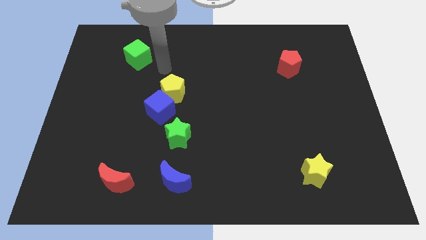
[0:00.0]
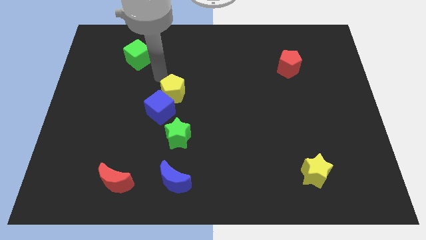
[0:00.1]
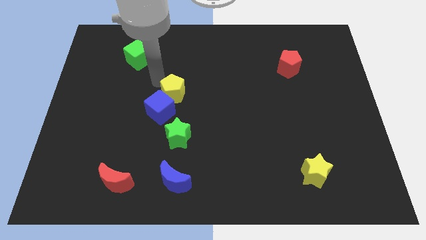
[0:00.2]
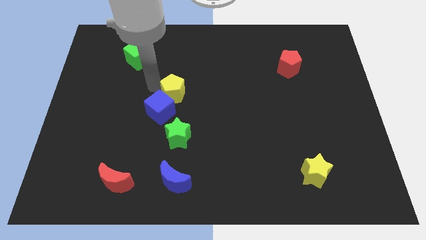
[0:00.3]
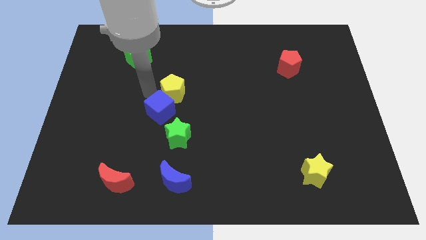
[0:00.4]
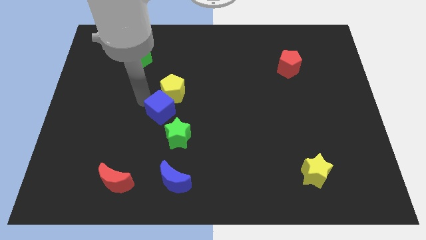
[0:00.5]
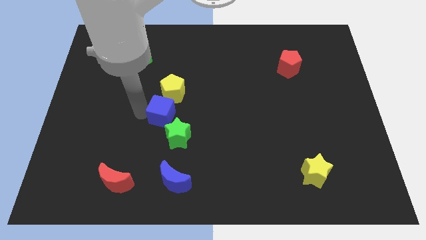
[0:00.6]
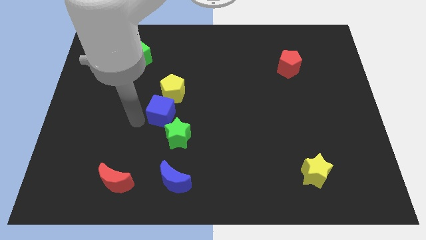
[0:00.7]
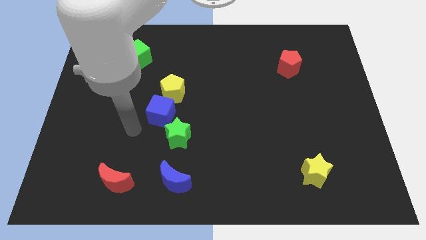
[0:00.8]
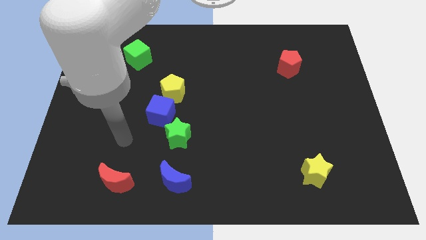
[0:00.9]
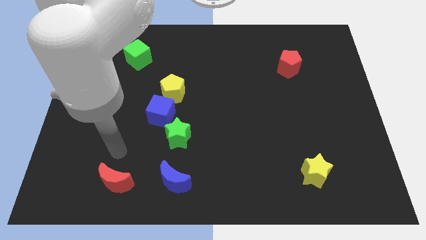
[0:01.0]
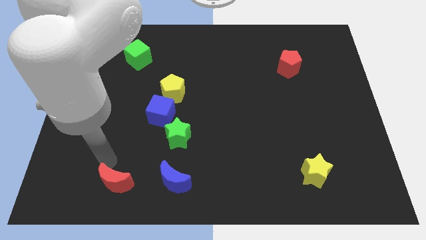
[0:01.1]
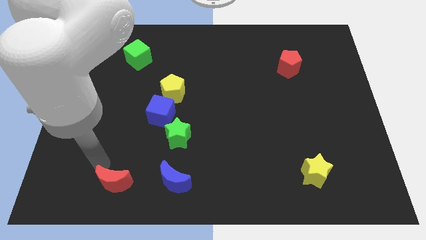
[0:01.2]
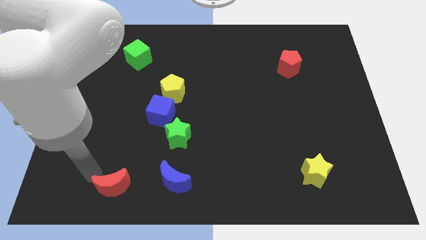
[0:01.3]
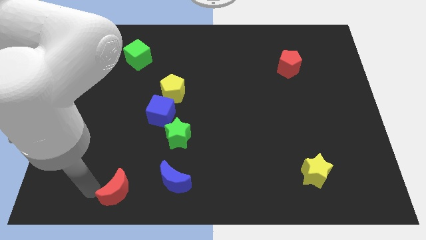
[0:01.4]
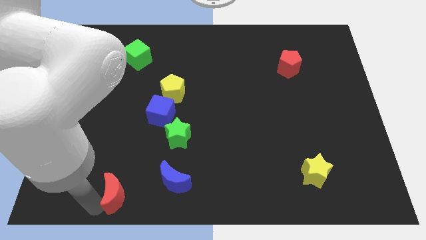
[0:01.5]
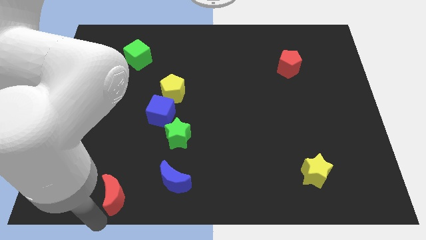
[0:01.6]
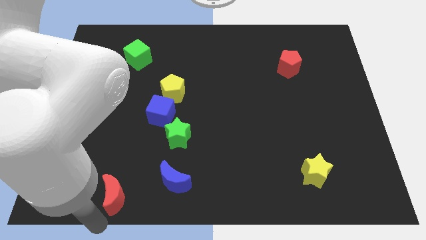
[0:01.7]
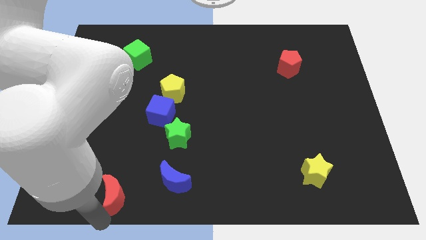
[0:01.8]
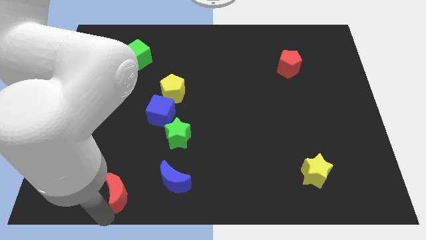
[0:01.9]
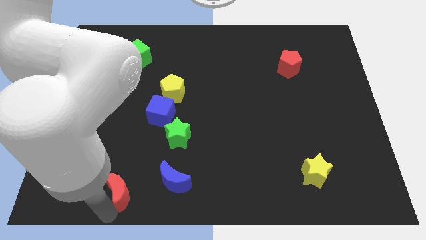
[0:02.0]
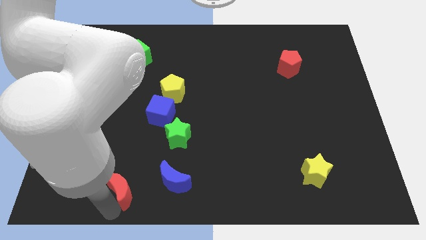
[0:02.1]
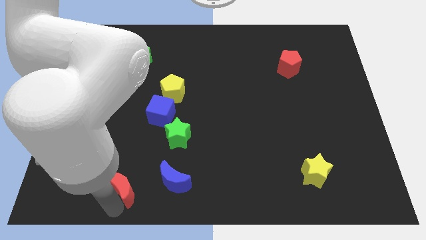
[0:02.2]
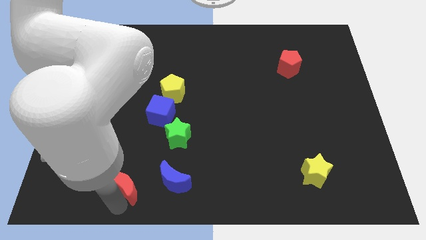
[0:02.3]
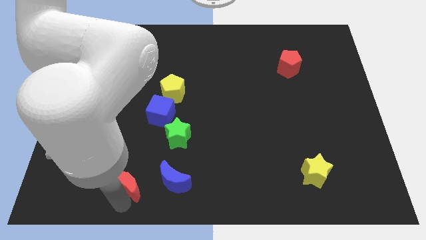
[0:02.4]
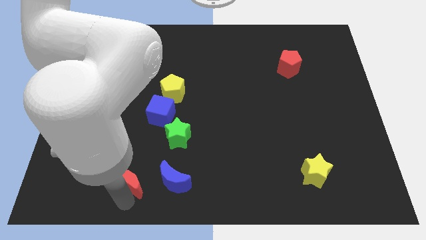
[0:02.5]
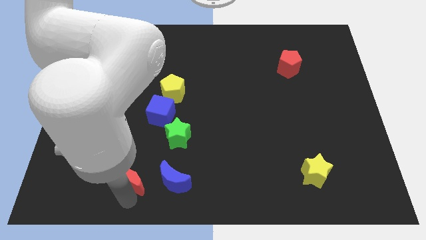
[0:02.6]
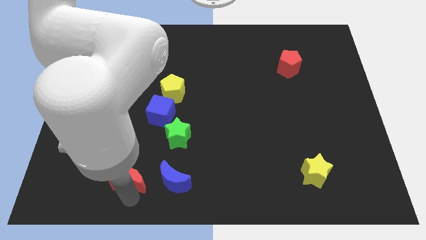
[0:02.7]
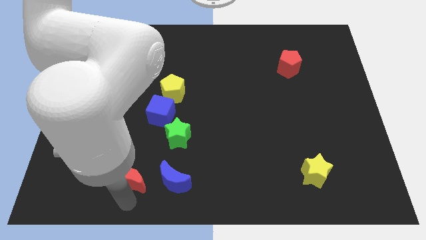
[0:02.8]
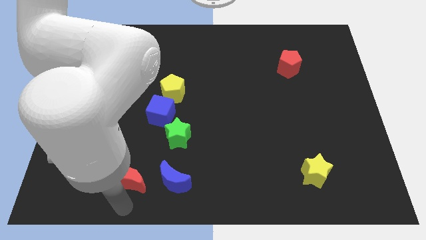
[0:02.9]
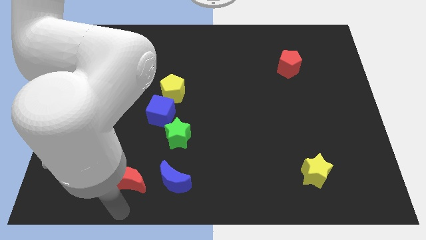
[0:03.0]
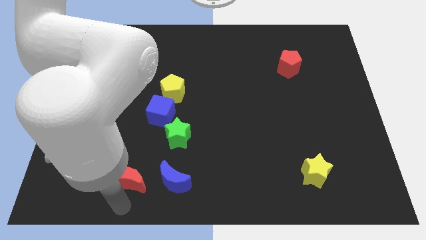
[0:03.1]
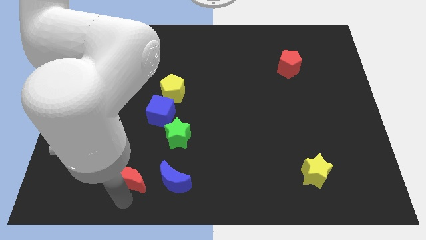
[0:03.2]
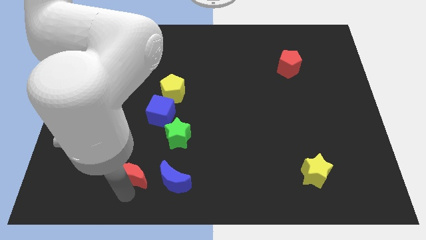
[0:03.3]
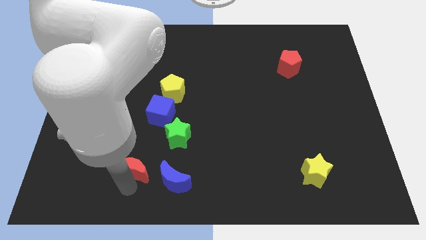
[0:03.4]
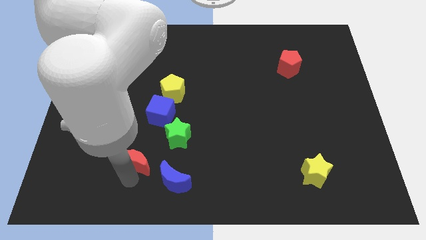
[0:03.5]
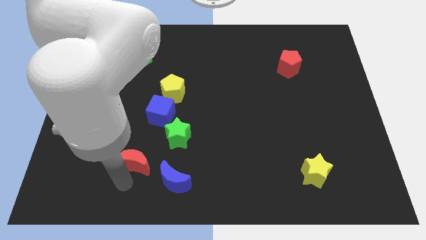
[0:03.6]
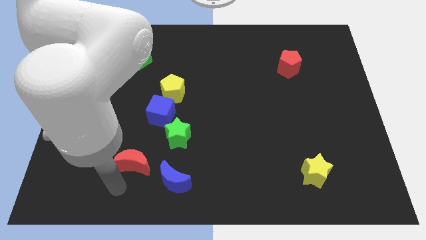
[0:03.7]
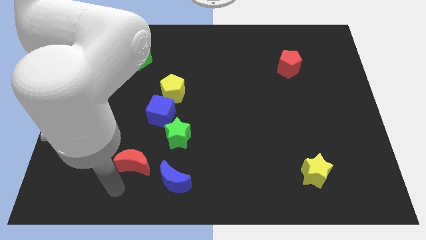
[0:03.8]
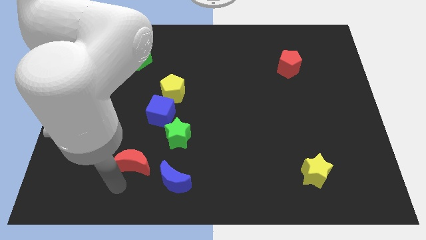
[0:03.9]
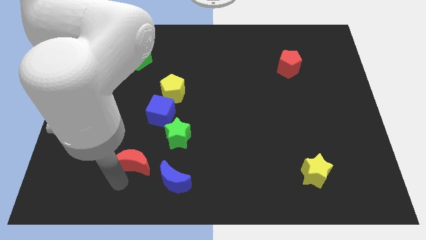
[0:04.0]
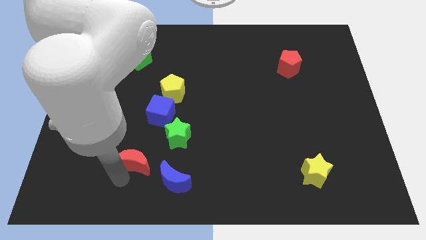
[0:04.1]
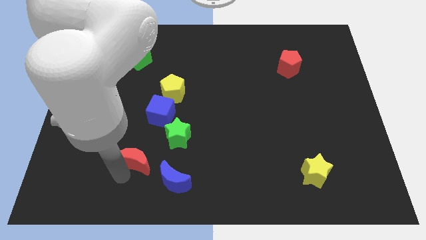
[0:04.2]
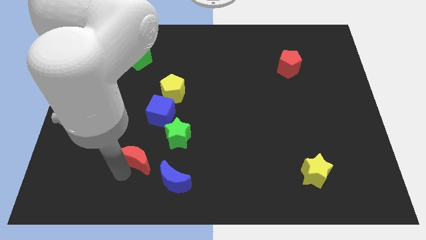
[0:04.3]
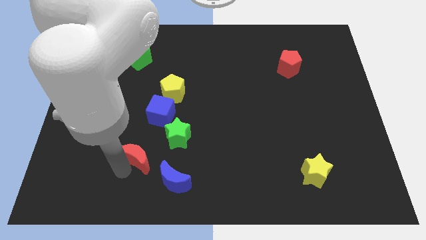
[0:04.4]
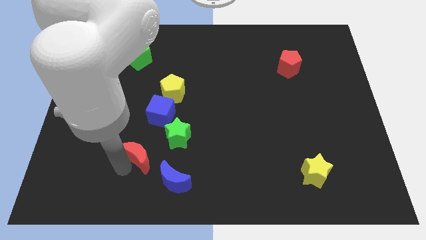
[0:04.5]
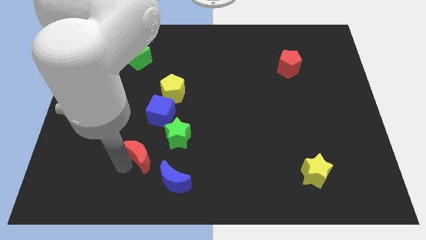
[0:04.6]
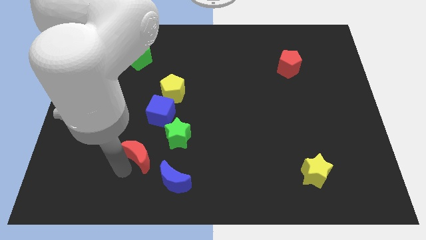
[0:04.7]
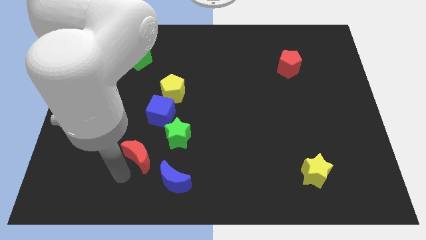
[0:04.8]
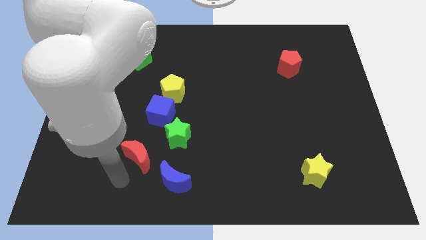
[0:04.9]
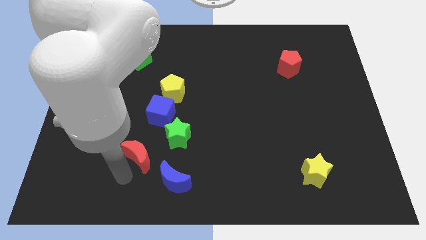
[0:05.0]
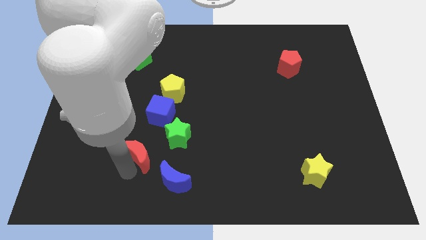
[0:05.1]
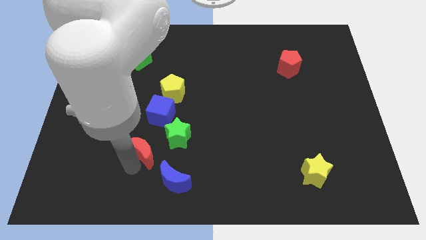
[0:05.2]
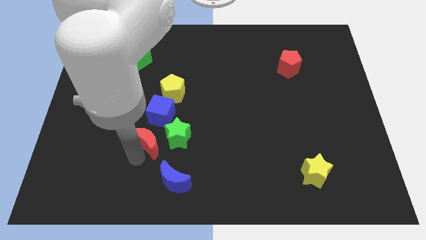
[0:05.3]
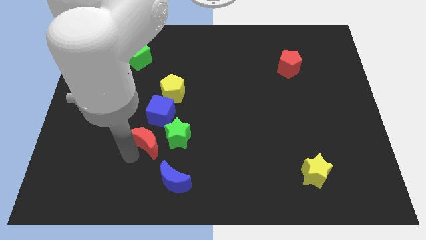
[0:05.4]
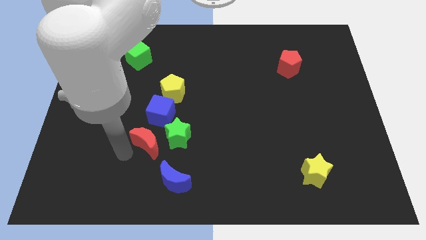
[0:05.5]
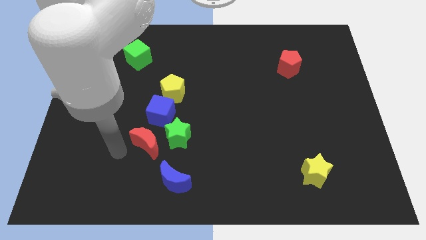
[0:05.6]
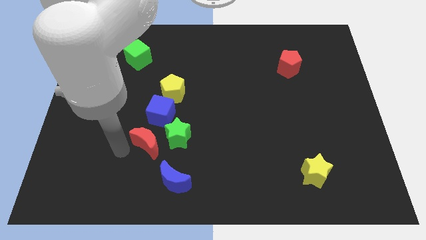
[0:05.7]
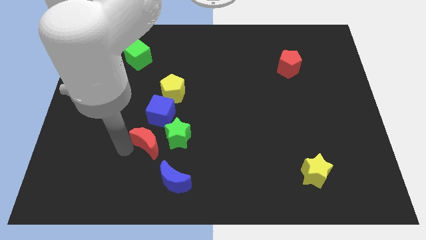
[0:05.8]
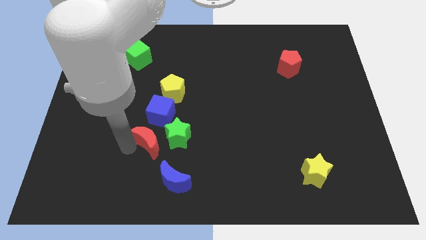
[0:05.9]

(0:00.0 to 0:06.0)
put the red moon close to the green star

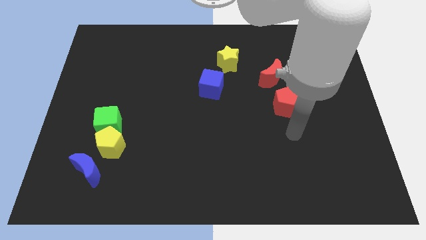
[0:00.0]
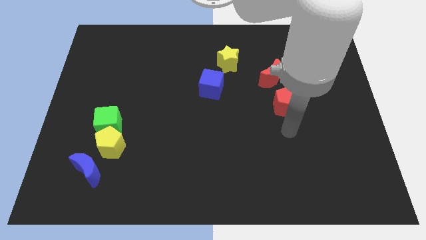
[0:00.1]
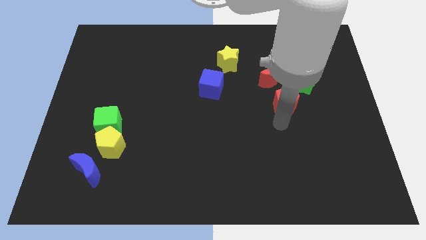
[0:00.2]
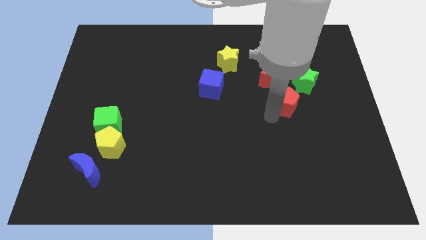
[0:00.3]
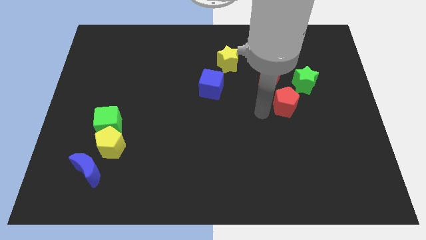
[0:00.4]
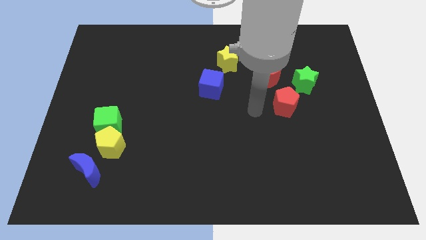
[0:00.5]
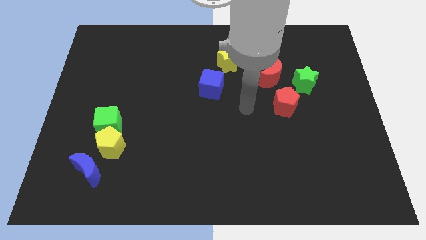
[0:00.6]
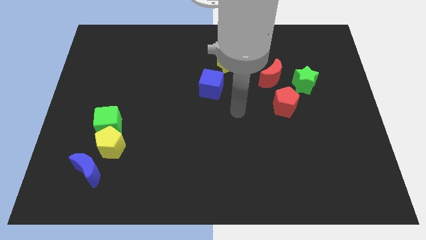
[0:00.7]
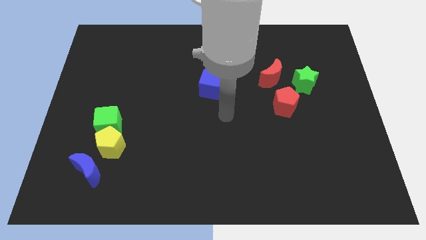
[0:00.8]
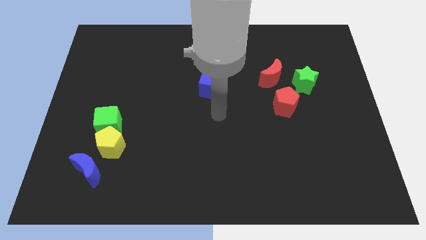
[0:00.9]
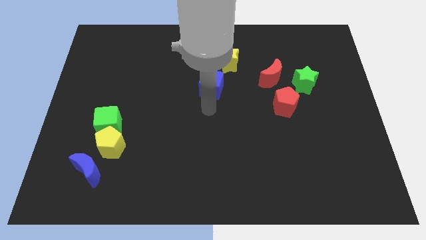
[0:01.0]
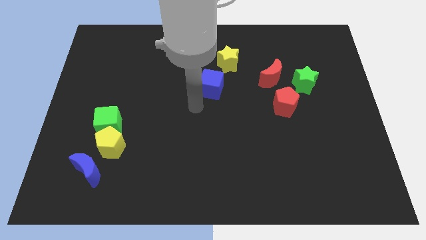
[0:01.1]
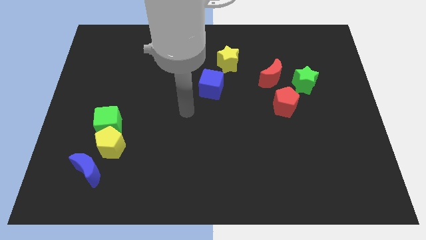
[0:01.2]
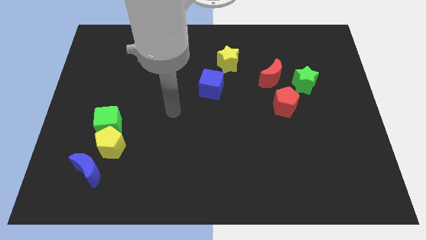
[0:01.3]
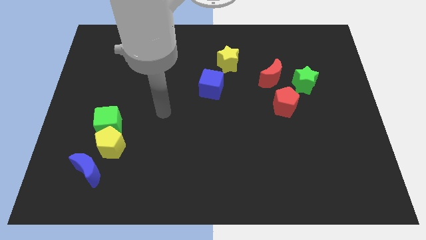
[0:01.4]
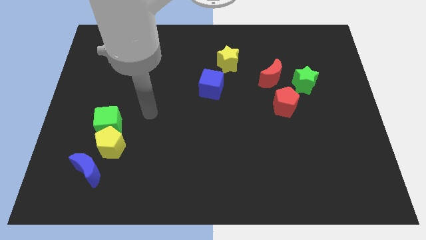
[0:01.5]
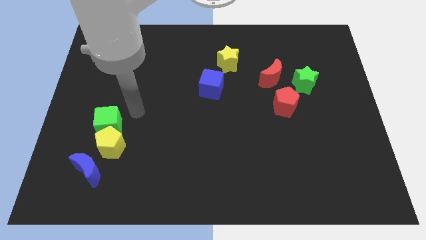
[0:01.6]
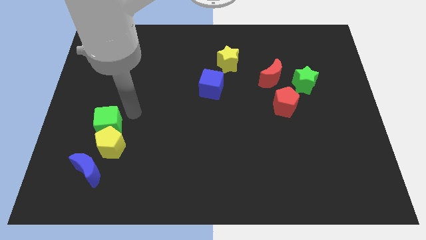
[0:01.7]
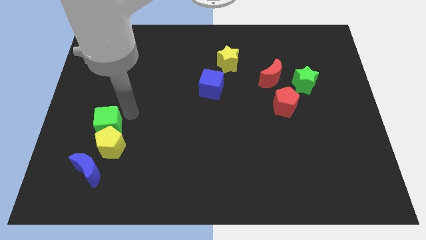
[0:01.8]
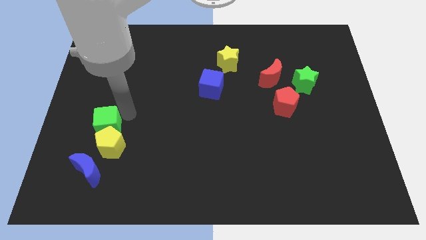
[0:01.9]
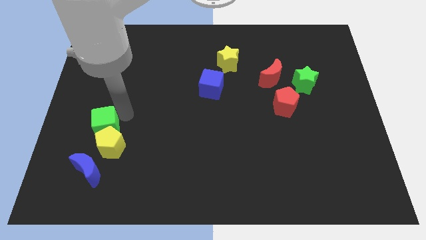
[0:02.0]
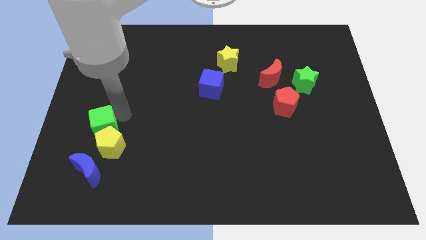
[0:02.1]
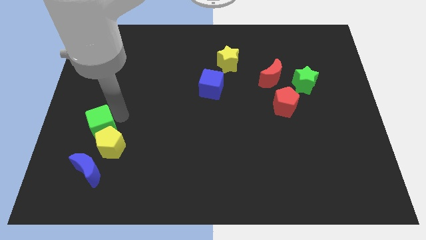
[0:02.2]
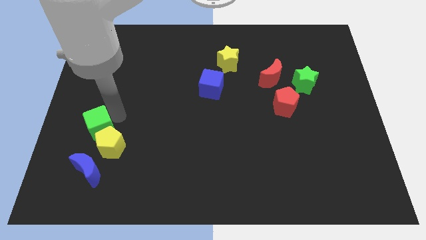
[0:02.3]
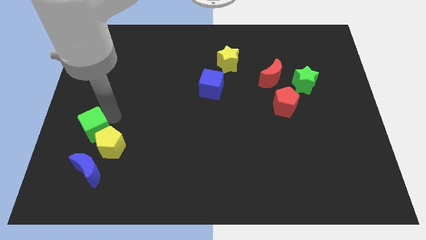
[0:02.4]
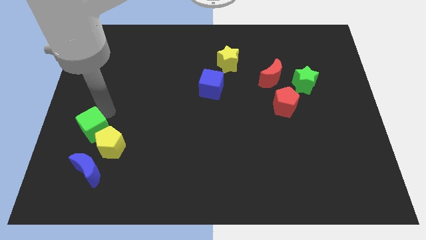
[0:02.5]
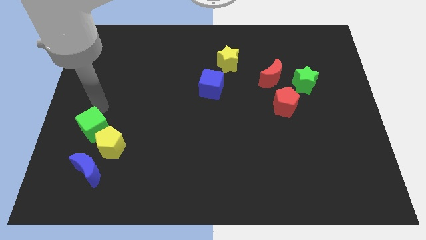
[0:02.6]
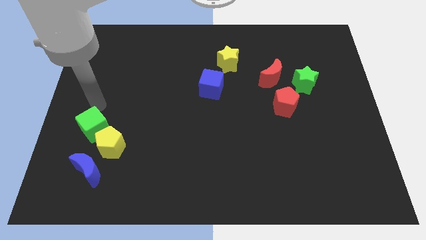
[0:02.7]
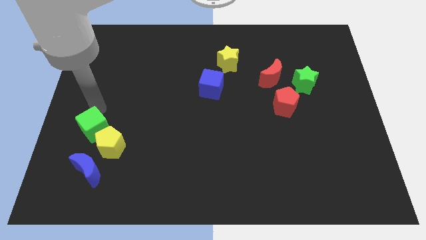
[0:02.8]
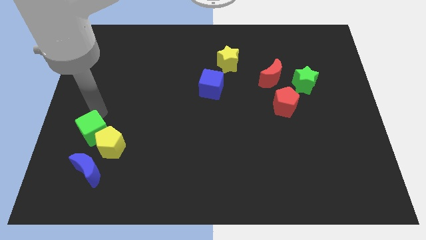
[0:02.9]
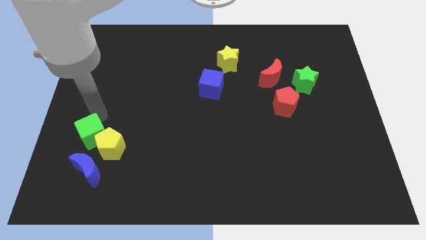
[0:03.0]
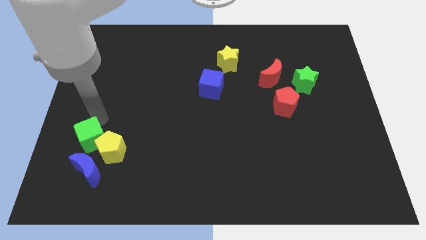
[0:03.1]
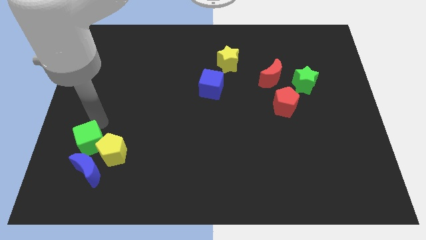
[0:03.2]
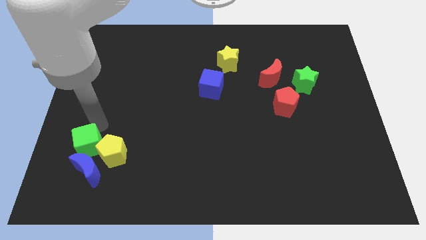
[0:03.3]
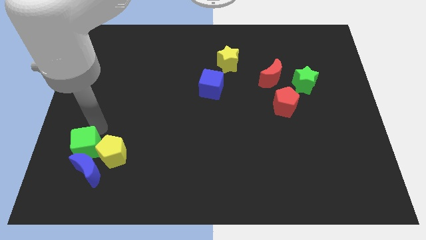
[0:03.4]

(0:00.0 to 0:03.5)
move the green cube towards the blue moon
